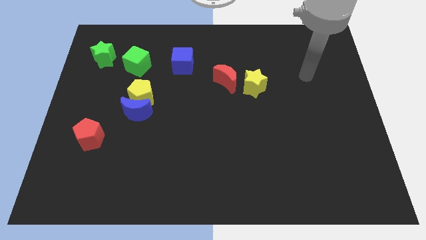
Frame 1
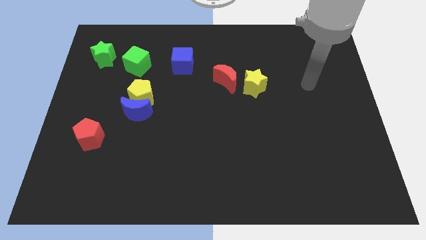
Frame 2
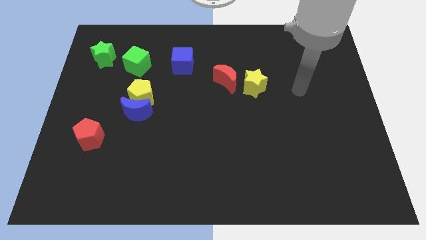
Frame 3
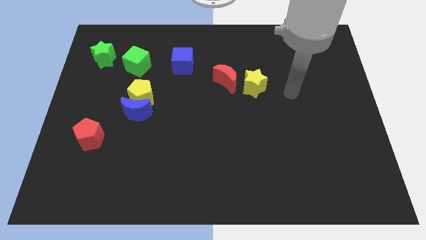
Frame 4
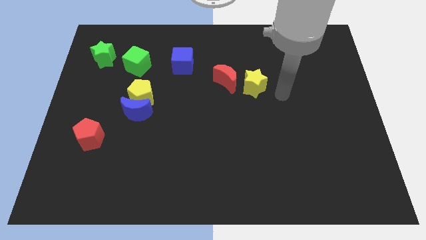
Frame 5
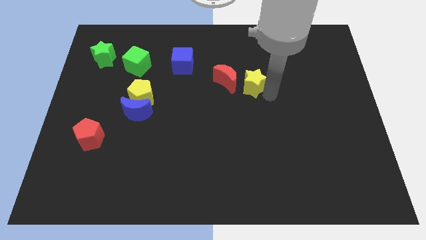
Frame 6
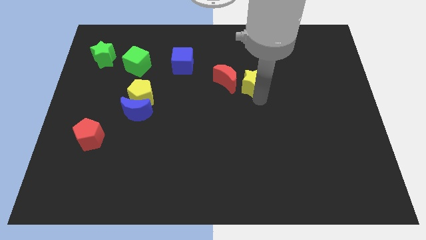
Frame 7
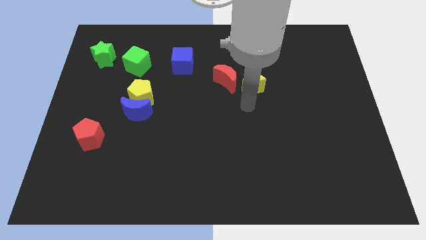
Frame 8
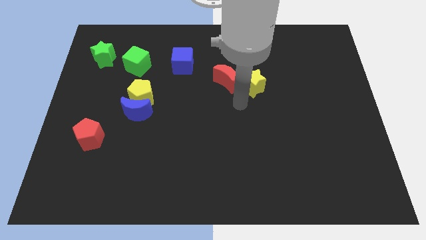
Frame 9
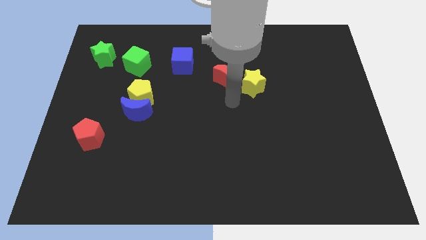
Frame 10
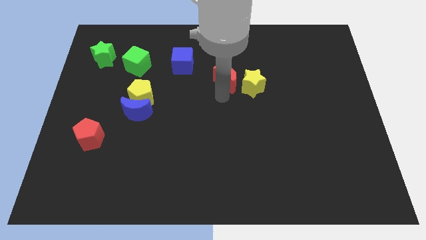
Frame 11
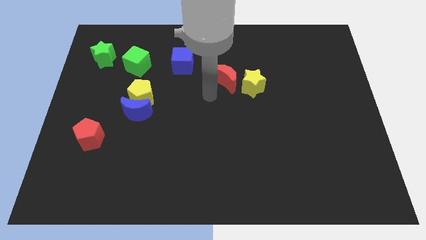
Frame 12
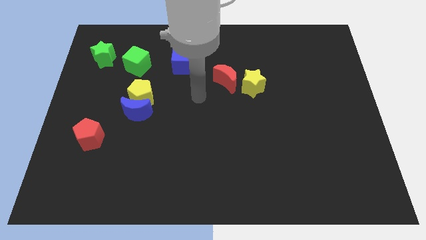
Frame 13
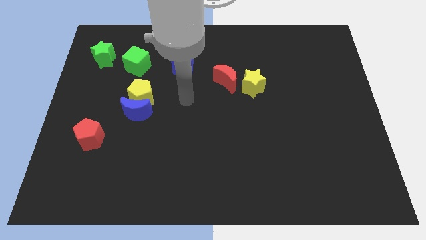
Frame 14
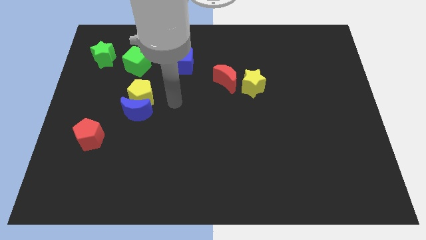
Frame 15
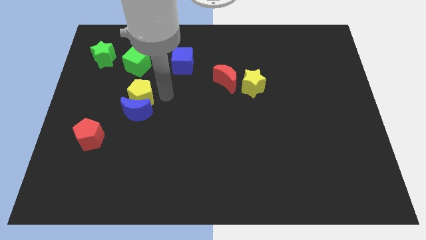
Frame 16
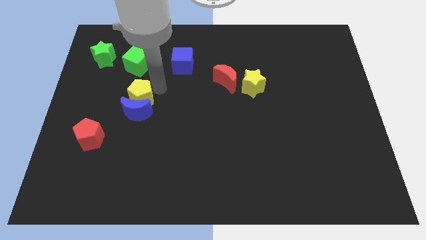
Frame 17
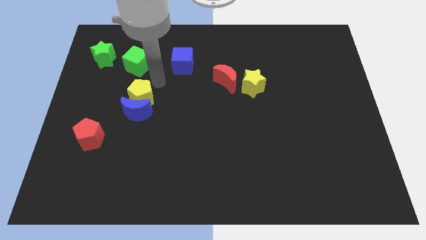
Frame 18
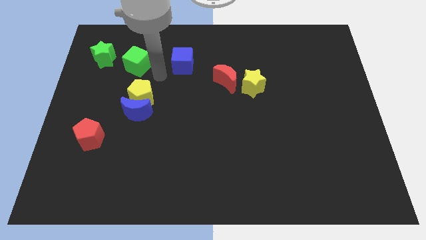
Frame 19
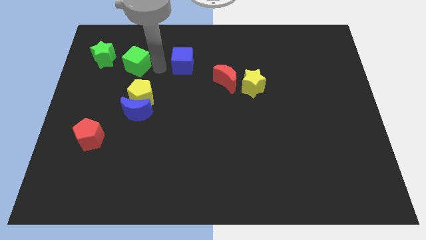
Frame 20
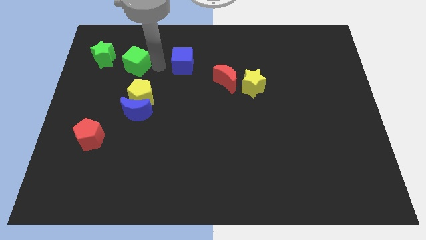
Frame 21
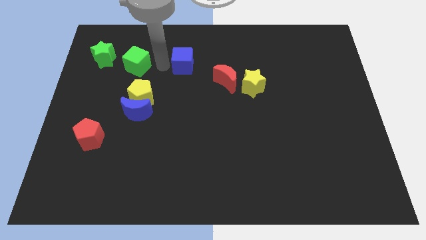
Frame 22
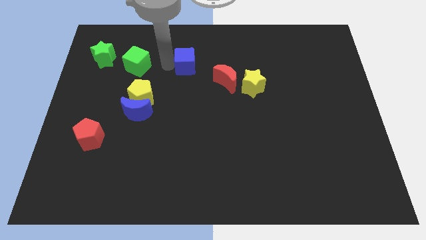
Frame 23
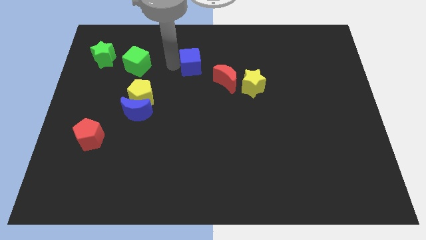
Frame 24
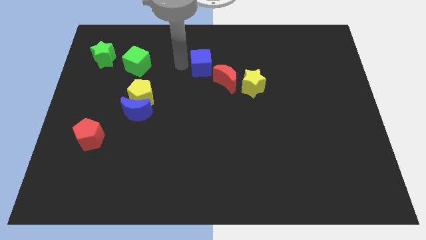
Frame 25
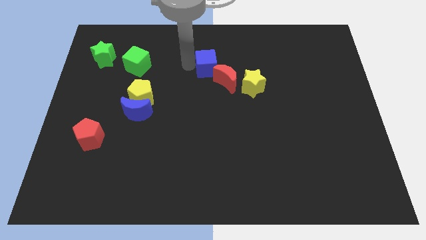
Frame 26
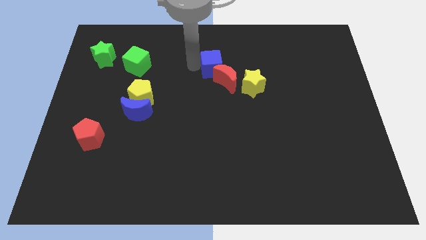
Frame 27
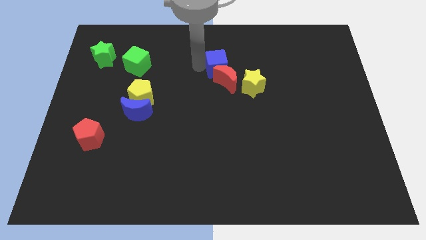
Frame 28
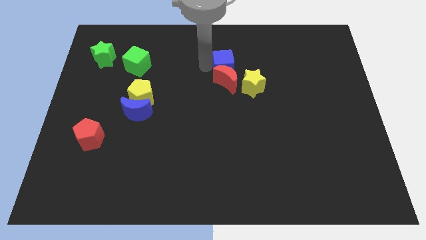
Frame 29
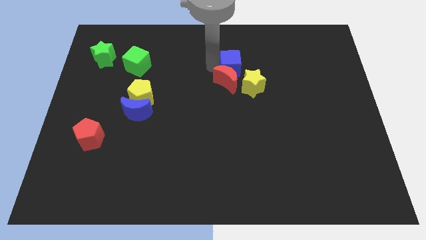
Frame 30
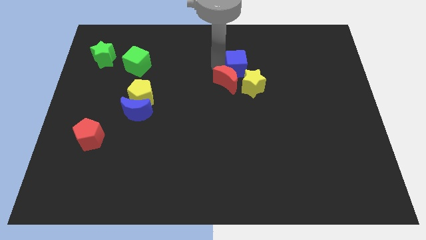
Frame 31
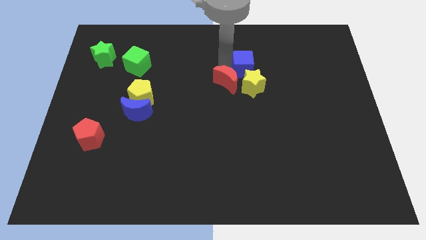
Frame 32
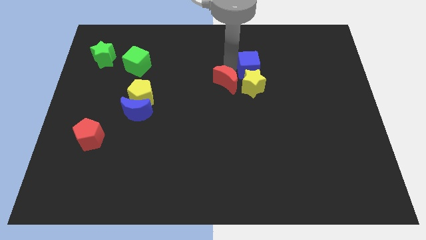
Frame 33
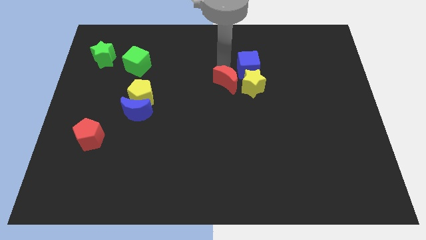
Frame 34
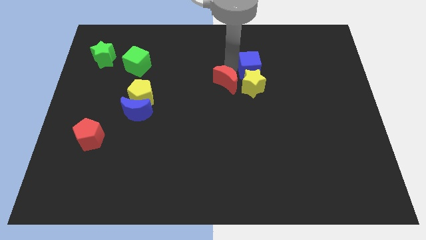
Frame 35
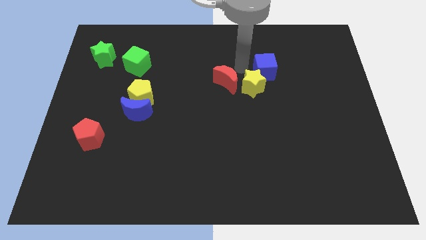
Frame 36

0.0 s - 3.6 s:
slide the blue cube to the right

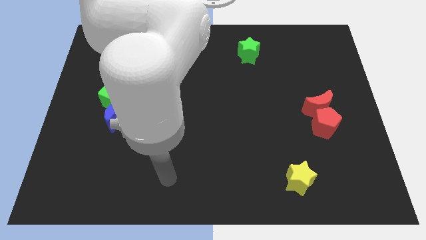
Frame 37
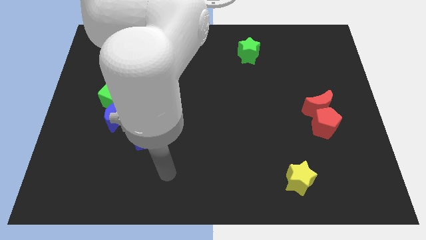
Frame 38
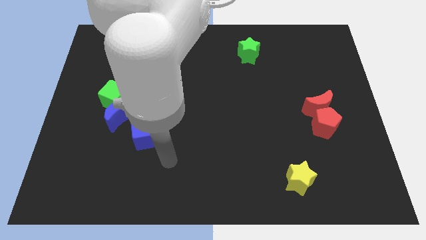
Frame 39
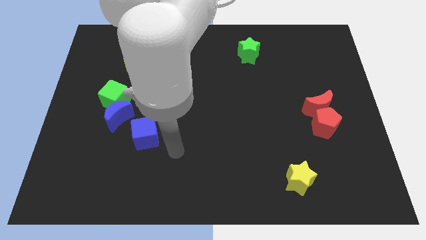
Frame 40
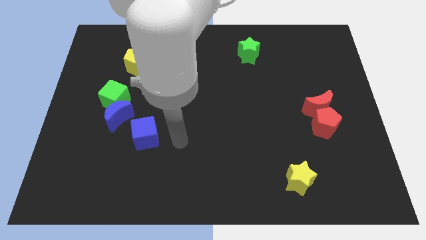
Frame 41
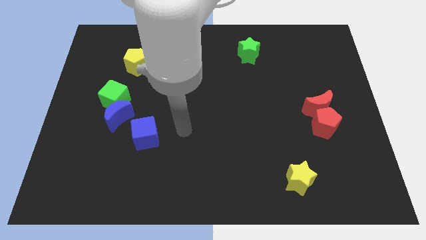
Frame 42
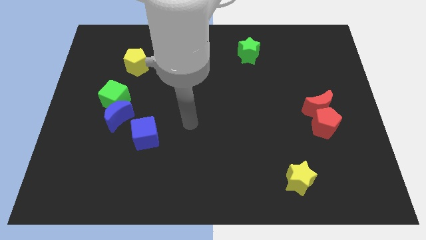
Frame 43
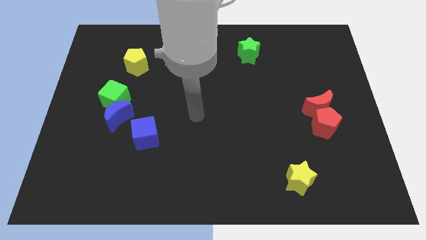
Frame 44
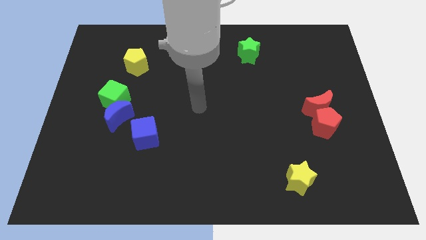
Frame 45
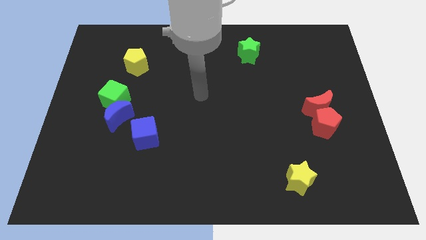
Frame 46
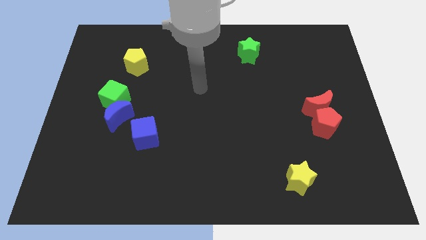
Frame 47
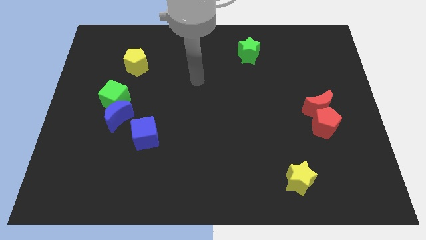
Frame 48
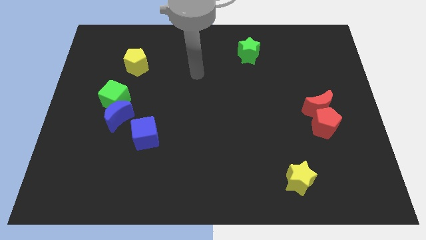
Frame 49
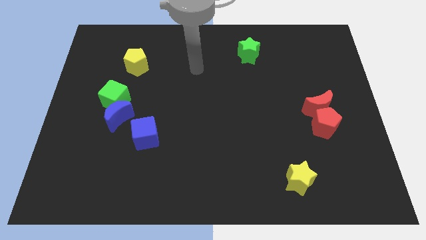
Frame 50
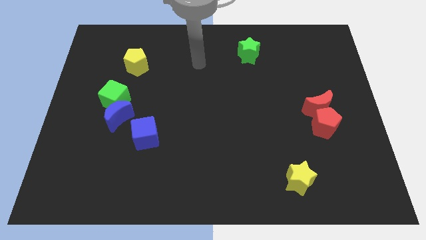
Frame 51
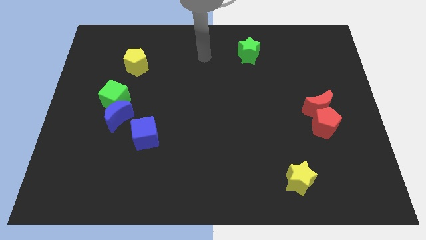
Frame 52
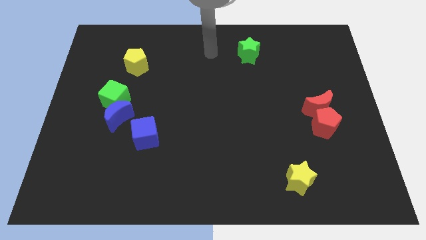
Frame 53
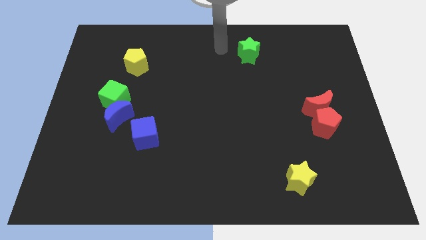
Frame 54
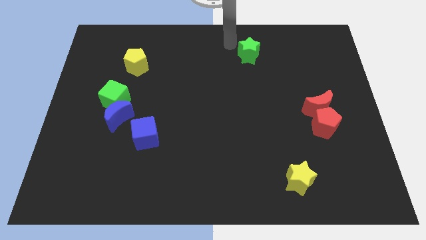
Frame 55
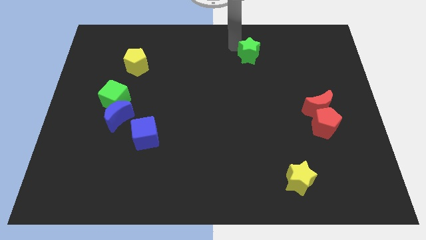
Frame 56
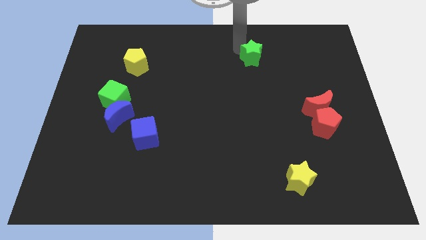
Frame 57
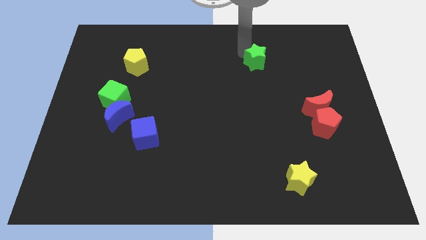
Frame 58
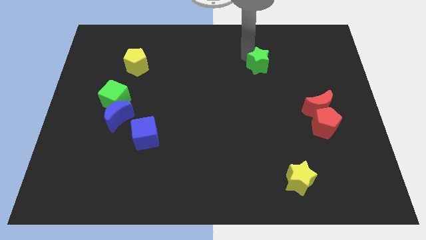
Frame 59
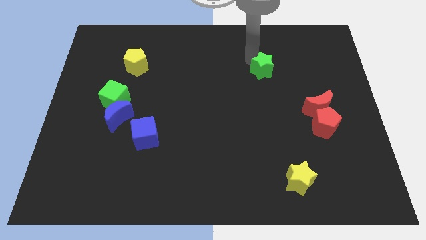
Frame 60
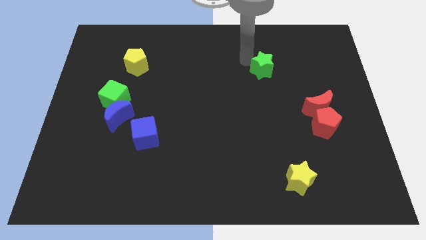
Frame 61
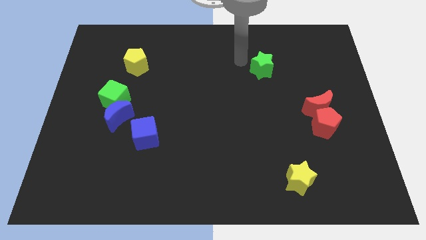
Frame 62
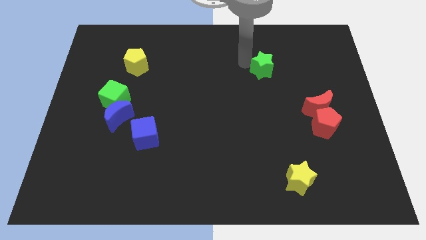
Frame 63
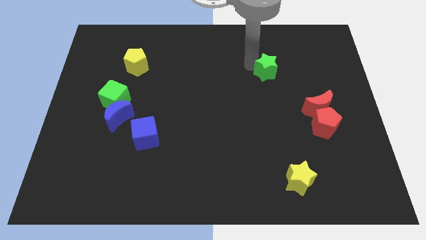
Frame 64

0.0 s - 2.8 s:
move the green star somewhat diagonally downwards and right

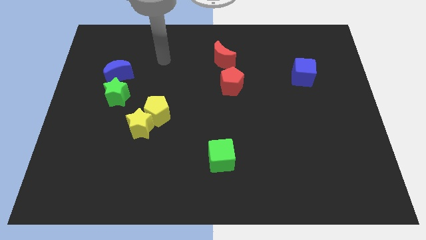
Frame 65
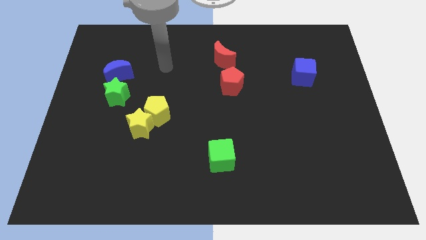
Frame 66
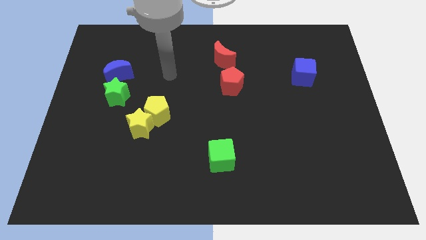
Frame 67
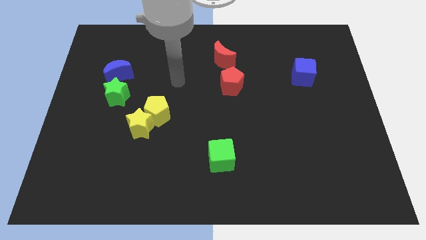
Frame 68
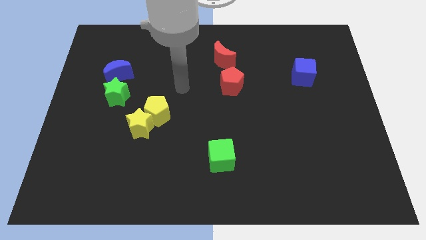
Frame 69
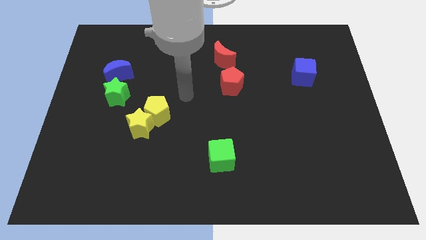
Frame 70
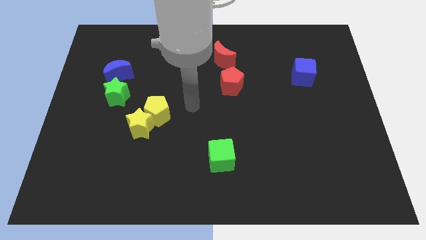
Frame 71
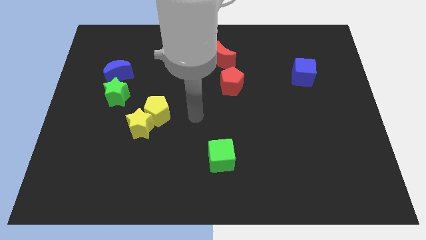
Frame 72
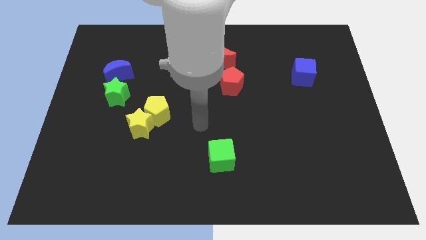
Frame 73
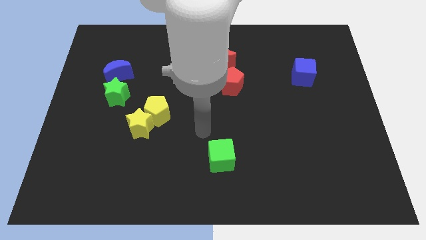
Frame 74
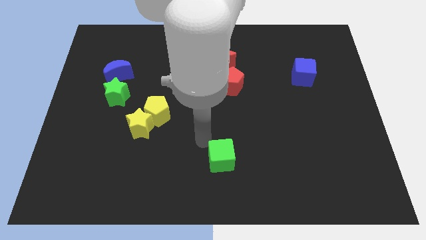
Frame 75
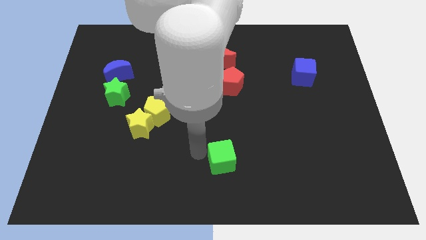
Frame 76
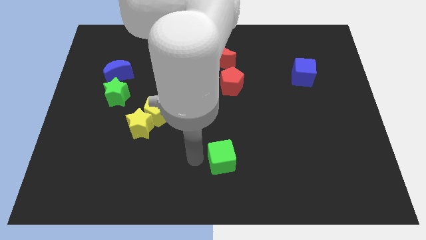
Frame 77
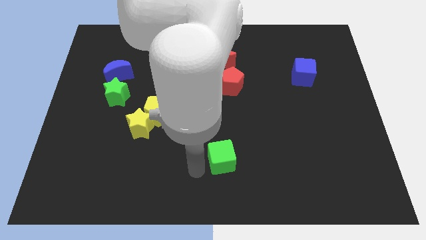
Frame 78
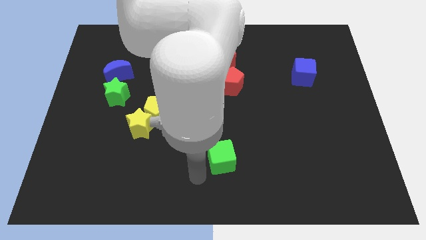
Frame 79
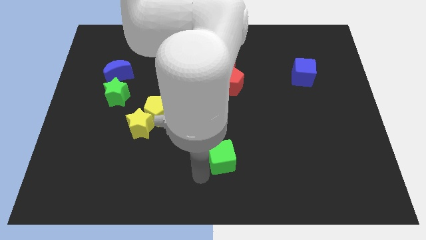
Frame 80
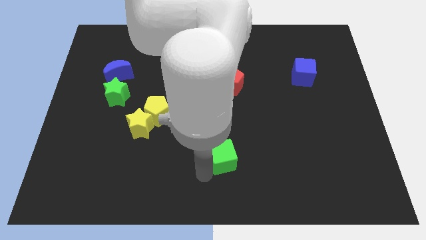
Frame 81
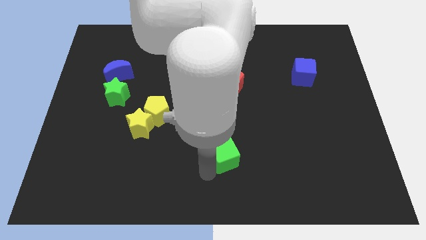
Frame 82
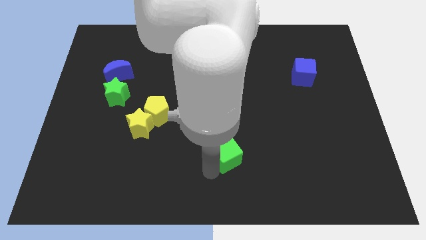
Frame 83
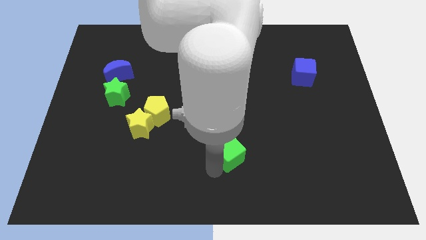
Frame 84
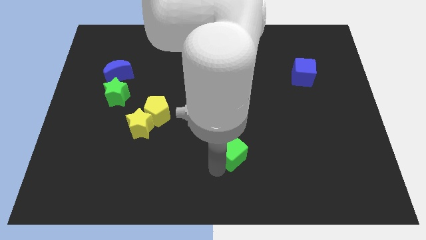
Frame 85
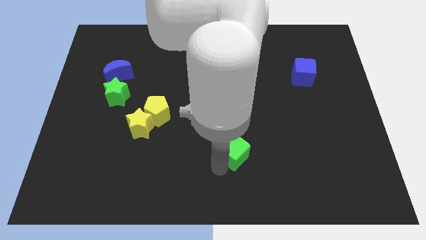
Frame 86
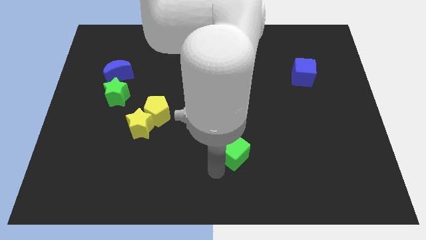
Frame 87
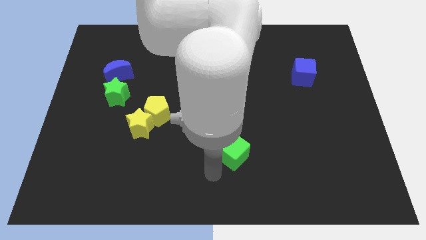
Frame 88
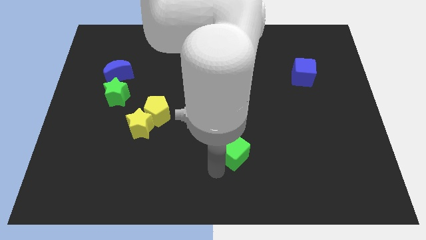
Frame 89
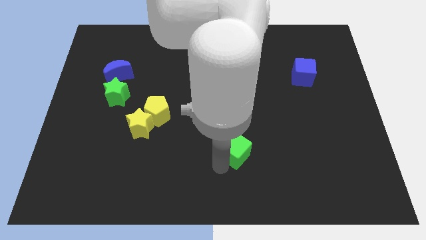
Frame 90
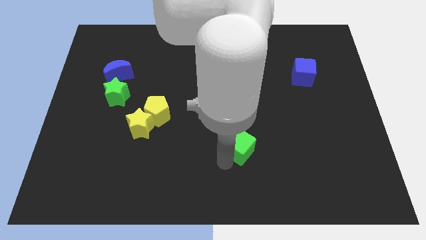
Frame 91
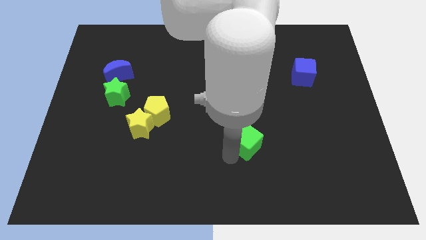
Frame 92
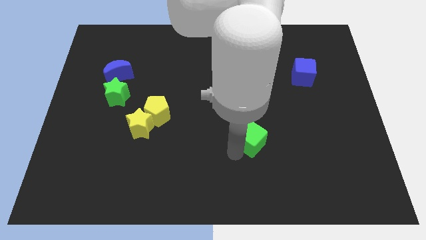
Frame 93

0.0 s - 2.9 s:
push the green cube a little bit upwards and right
